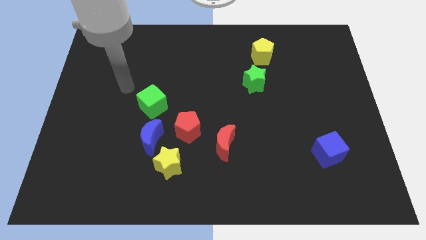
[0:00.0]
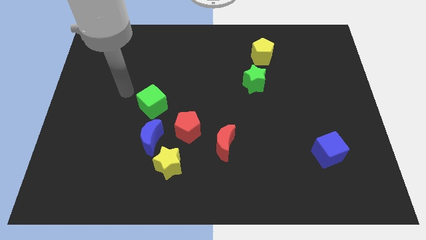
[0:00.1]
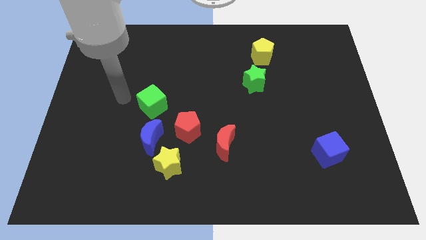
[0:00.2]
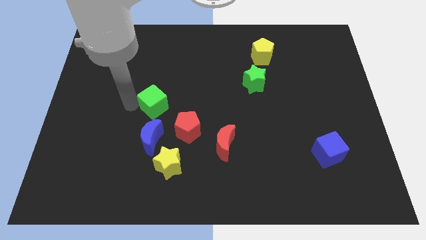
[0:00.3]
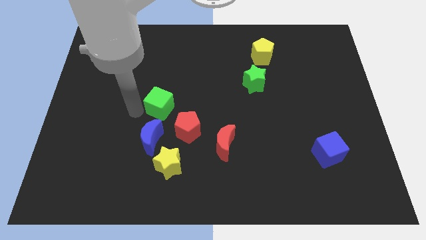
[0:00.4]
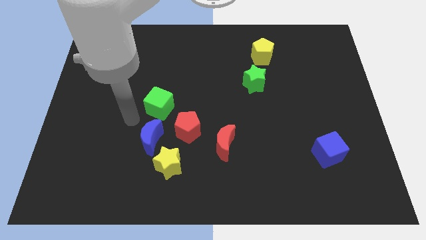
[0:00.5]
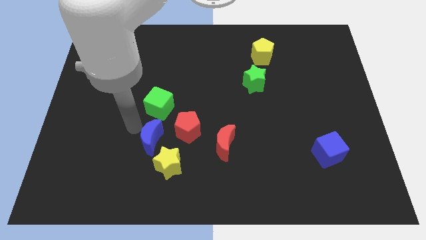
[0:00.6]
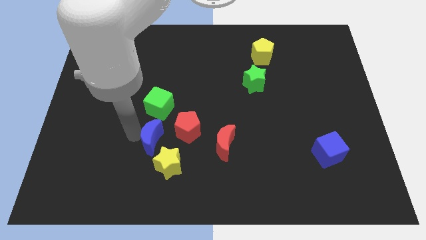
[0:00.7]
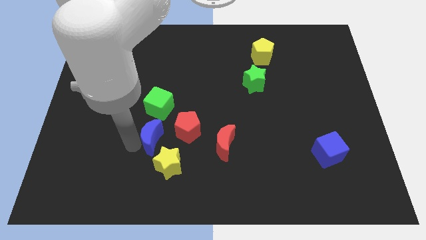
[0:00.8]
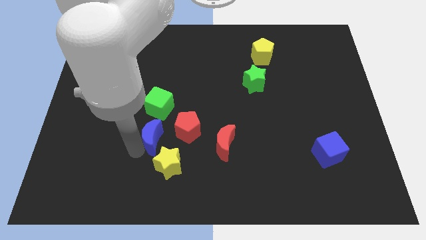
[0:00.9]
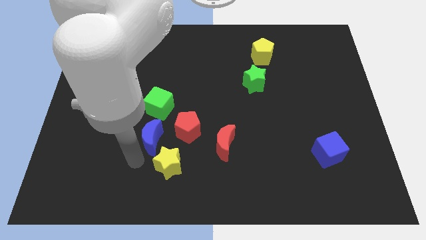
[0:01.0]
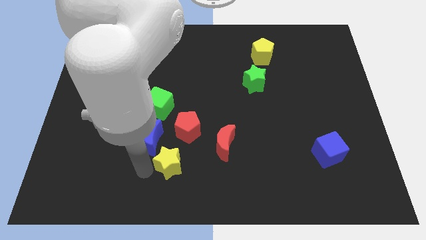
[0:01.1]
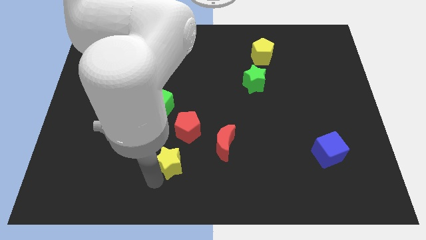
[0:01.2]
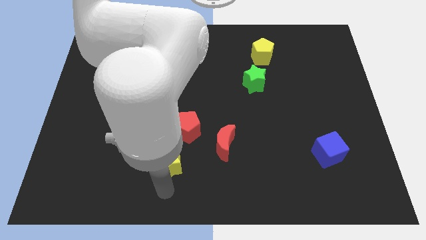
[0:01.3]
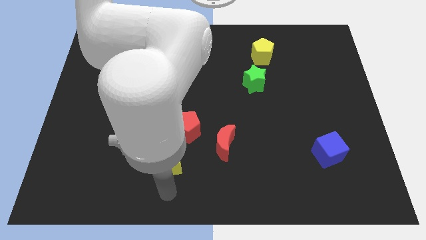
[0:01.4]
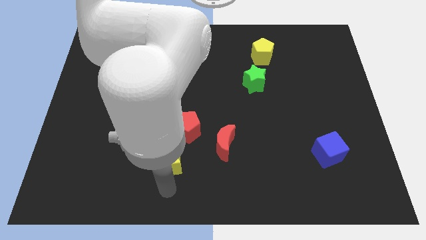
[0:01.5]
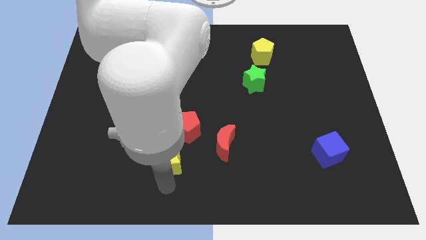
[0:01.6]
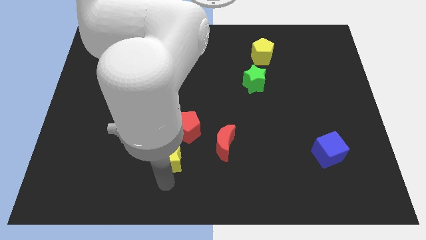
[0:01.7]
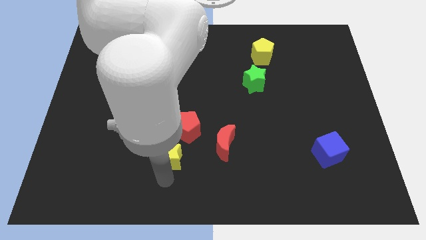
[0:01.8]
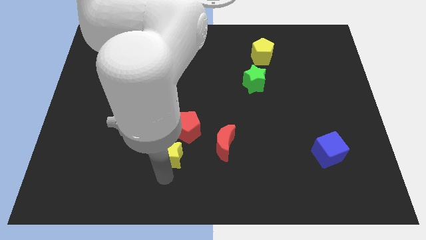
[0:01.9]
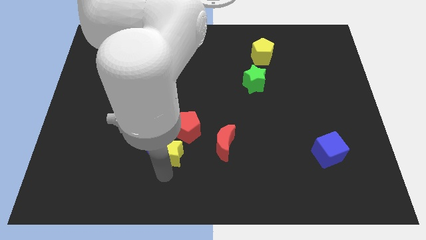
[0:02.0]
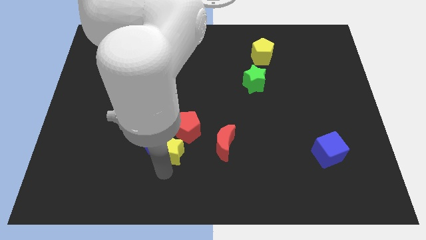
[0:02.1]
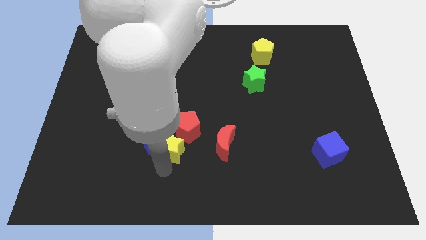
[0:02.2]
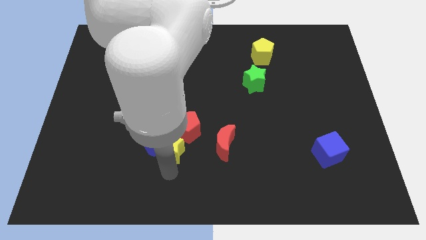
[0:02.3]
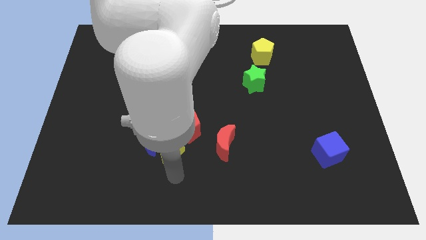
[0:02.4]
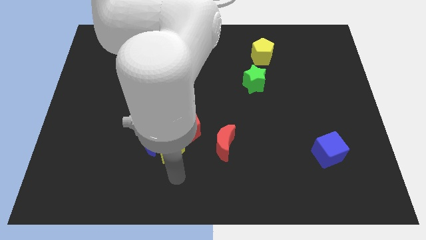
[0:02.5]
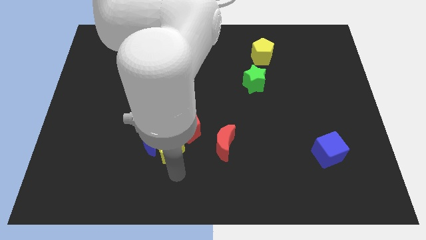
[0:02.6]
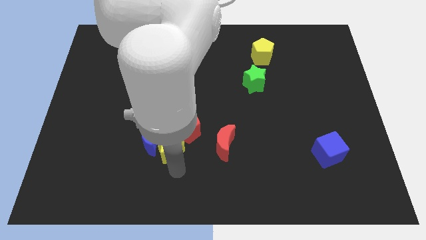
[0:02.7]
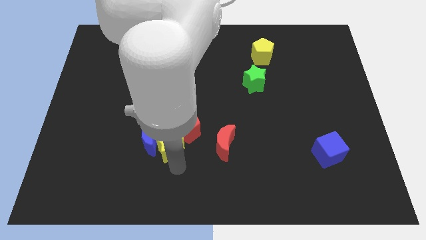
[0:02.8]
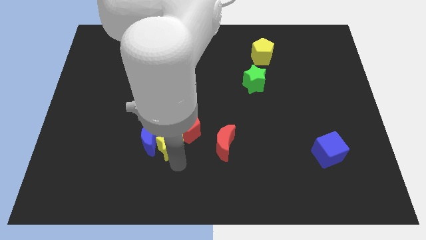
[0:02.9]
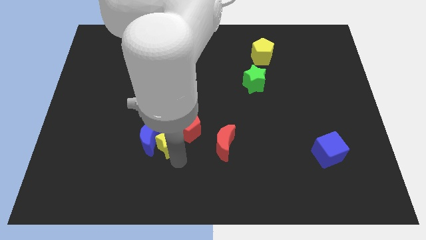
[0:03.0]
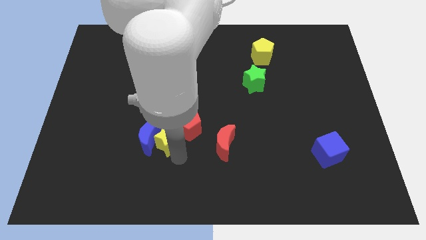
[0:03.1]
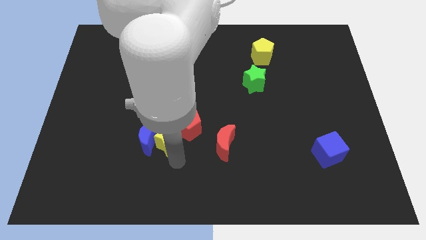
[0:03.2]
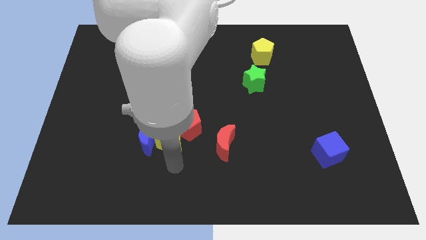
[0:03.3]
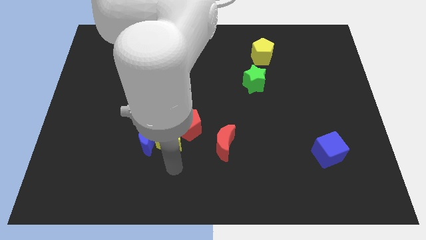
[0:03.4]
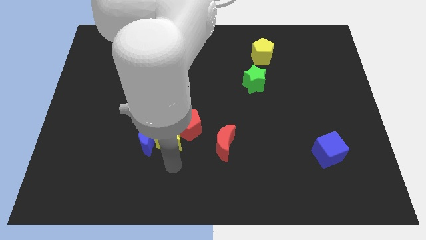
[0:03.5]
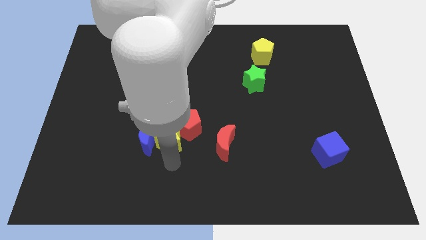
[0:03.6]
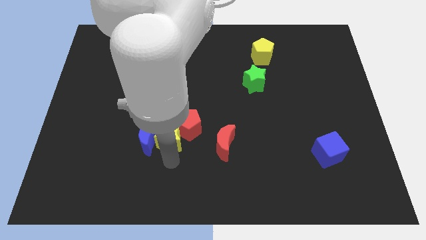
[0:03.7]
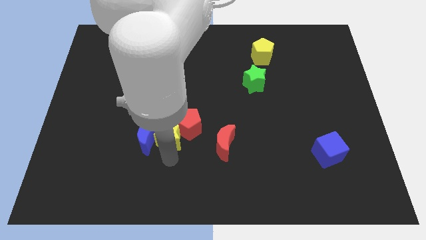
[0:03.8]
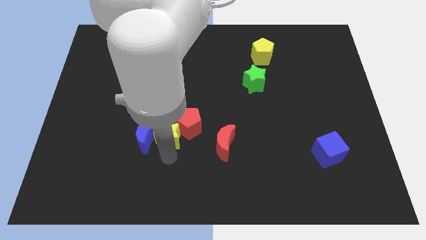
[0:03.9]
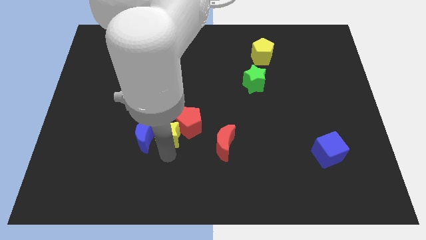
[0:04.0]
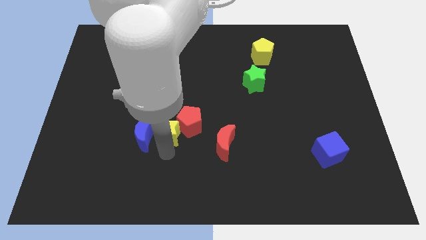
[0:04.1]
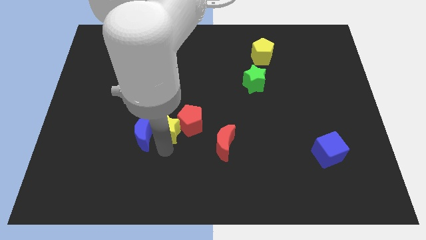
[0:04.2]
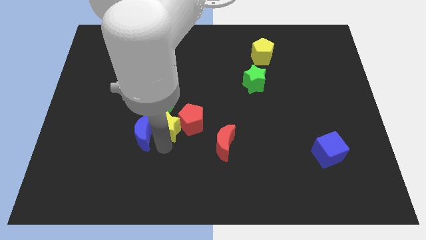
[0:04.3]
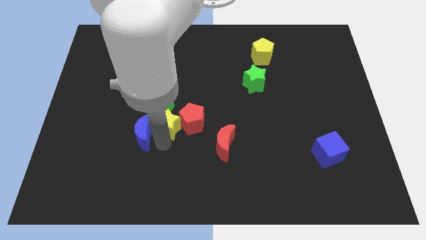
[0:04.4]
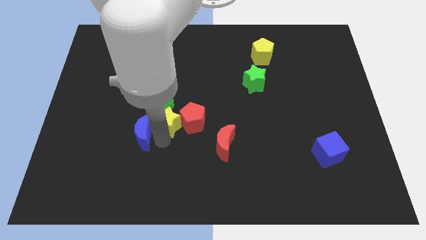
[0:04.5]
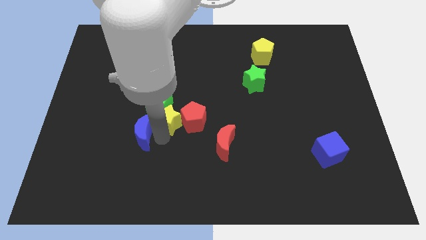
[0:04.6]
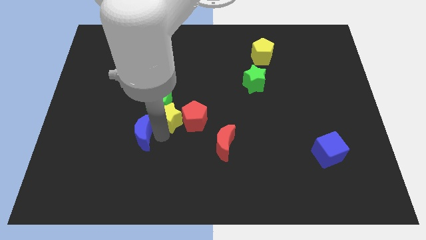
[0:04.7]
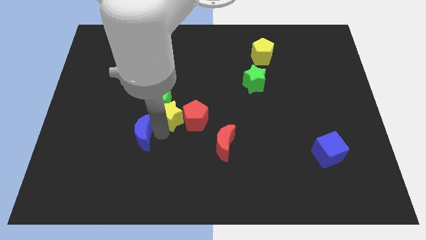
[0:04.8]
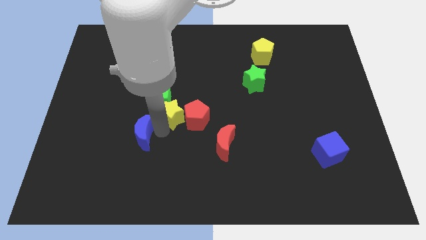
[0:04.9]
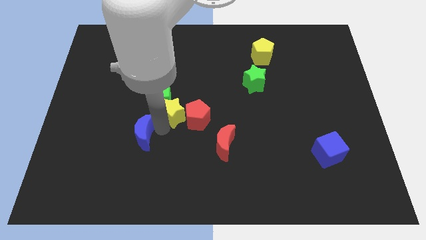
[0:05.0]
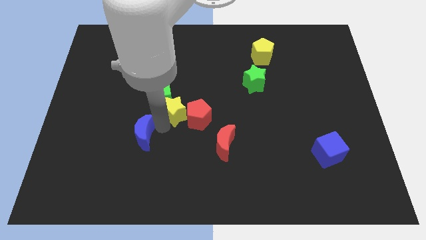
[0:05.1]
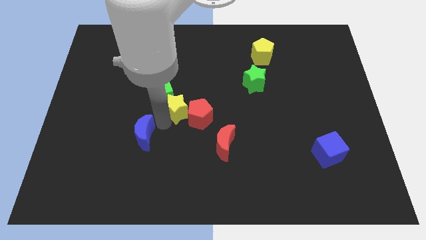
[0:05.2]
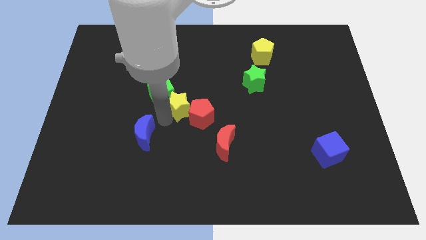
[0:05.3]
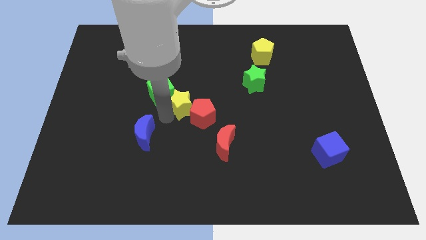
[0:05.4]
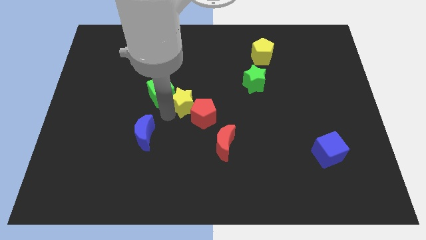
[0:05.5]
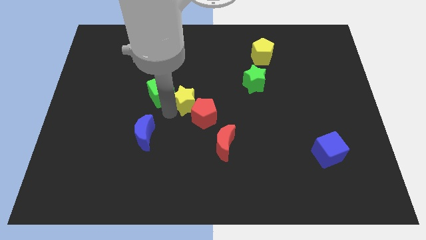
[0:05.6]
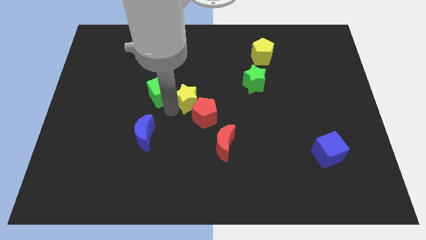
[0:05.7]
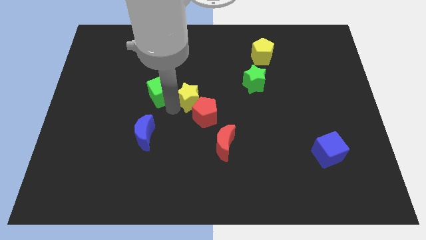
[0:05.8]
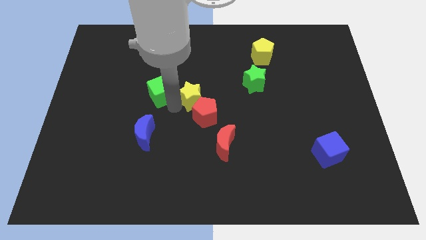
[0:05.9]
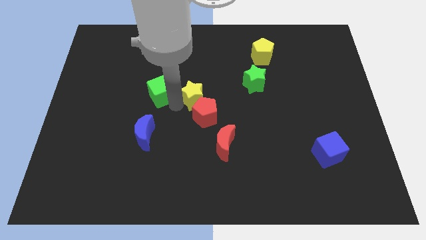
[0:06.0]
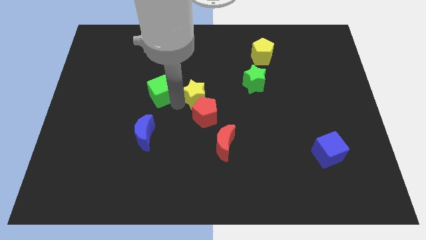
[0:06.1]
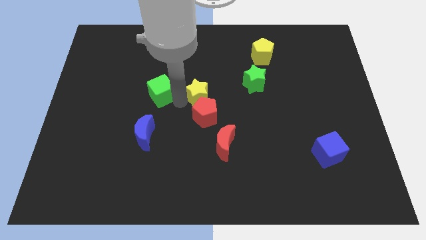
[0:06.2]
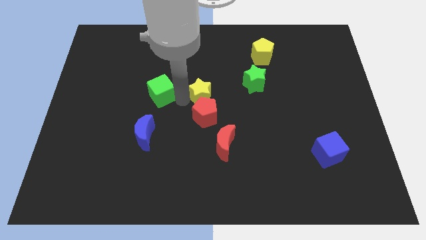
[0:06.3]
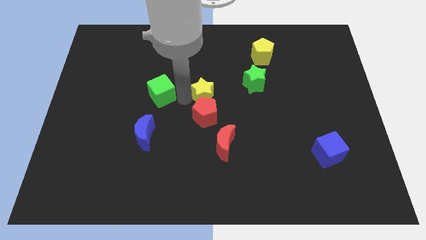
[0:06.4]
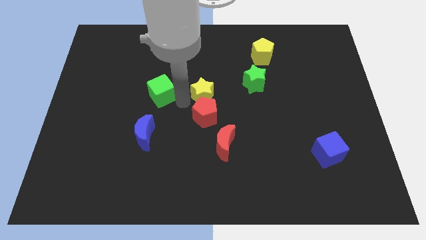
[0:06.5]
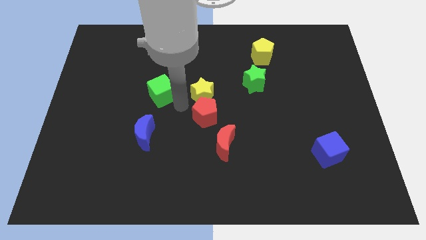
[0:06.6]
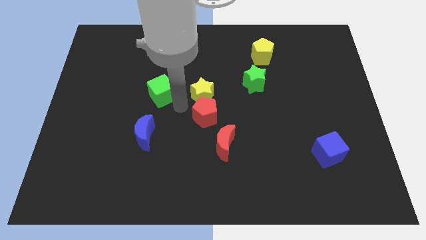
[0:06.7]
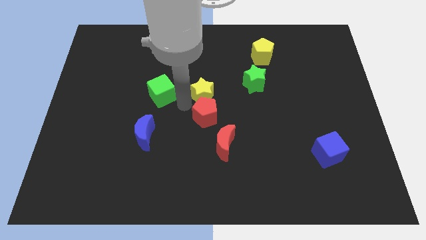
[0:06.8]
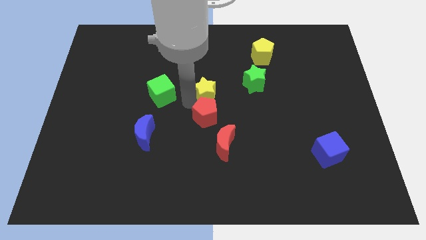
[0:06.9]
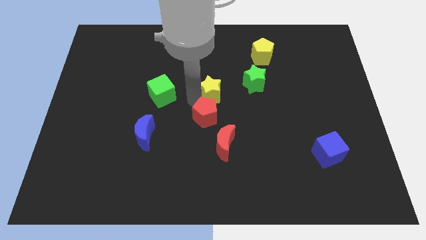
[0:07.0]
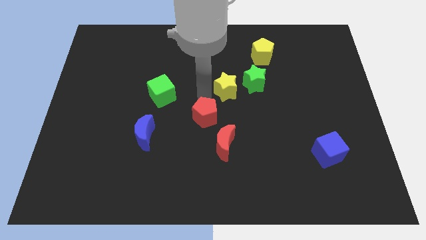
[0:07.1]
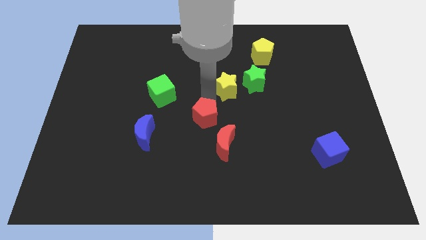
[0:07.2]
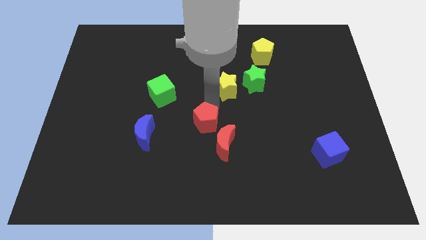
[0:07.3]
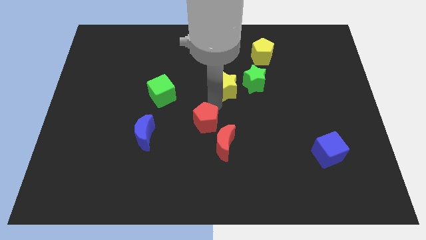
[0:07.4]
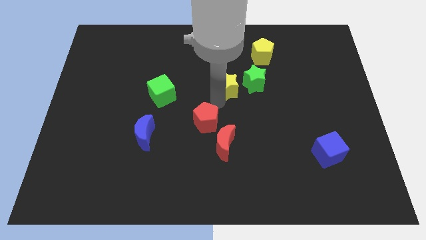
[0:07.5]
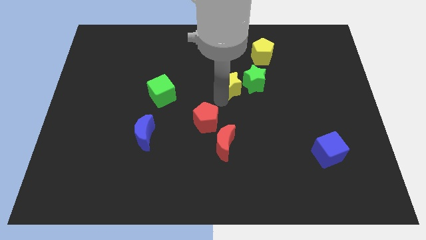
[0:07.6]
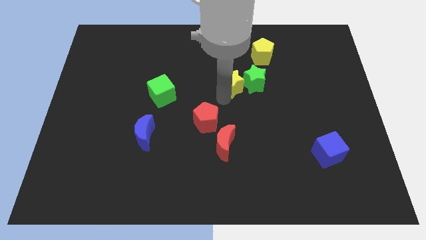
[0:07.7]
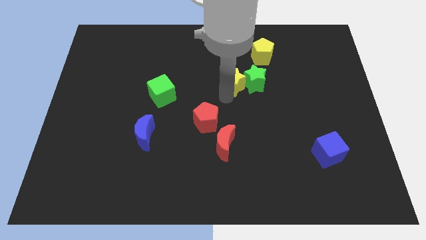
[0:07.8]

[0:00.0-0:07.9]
put the yellow star to the bottom left side of the yellow pentagon
